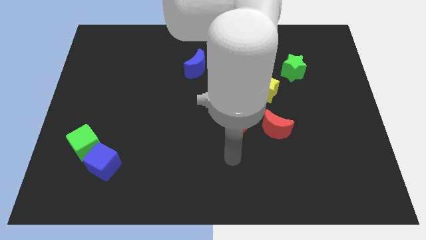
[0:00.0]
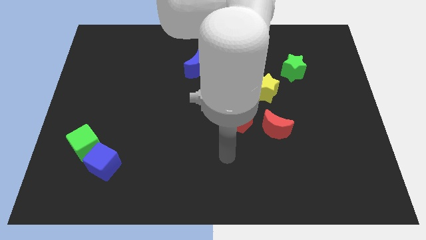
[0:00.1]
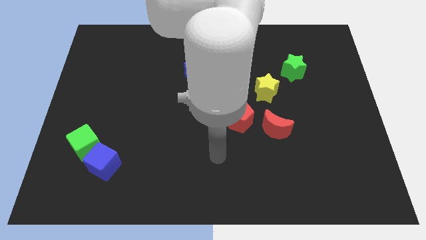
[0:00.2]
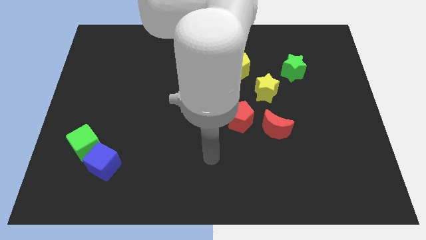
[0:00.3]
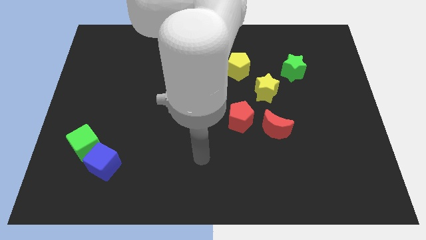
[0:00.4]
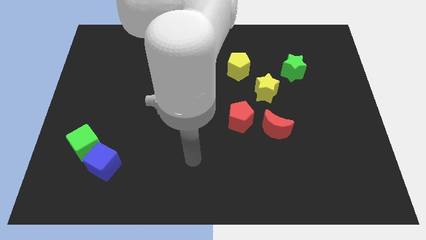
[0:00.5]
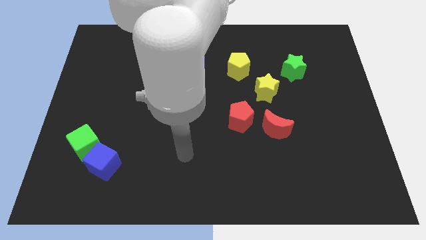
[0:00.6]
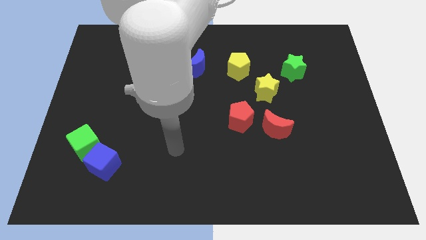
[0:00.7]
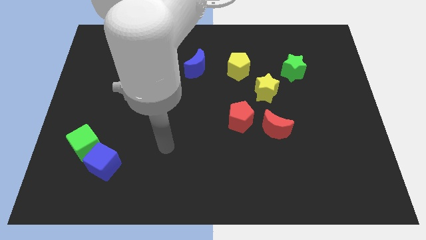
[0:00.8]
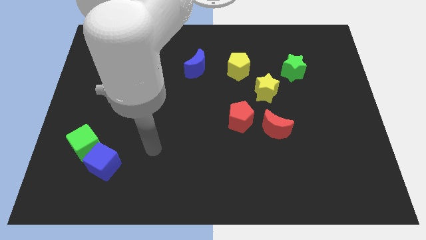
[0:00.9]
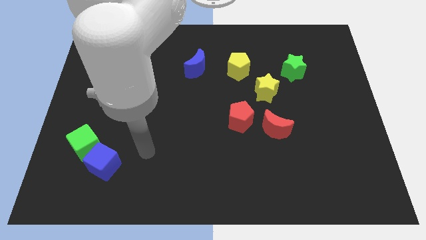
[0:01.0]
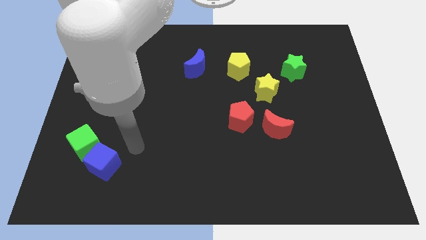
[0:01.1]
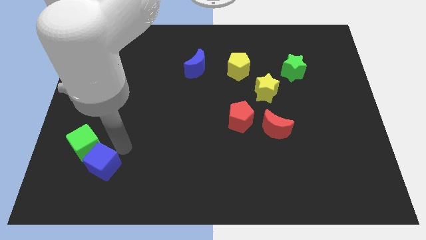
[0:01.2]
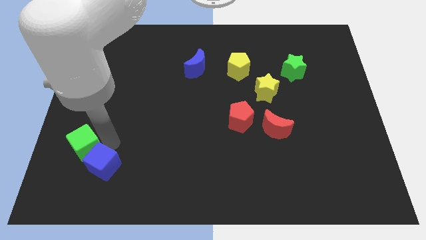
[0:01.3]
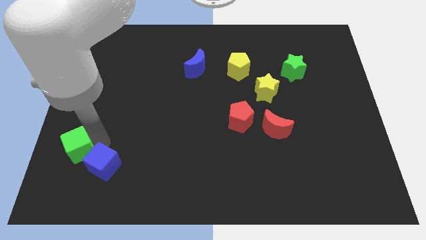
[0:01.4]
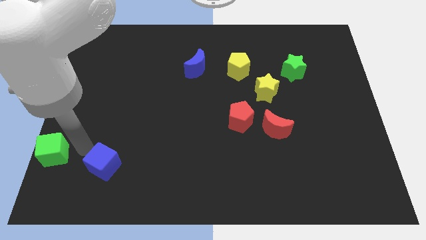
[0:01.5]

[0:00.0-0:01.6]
pull the blue cube apart from the green cube

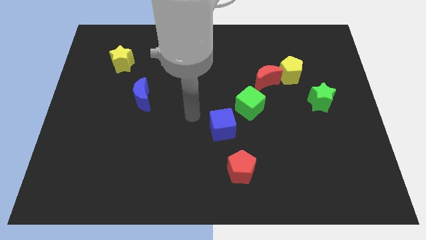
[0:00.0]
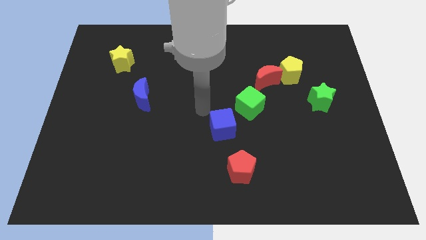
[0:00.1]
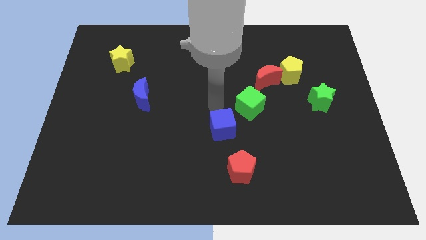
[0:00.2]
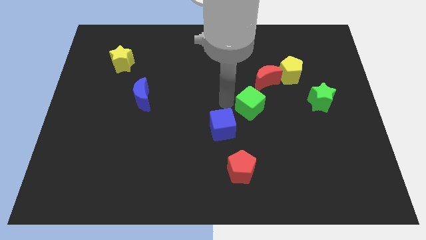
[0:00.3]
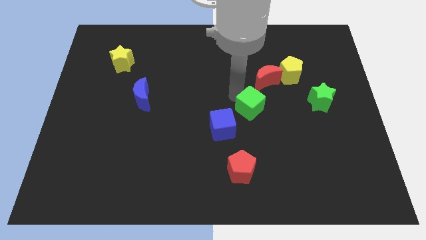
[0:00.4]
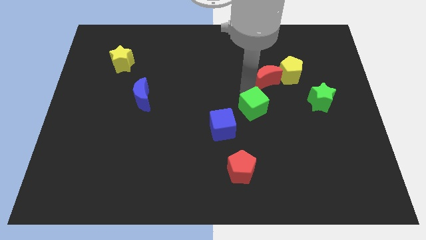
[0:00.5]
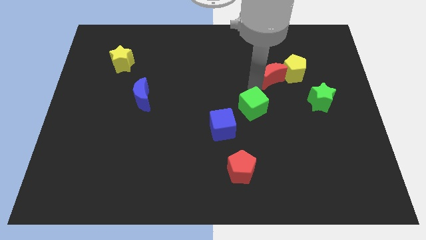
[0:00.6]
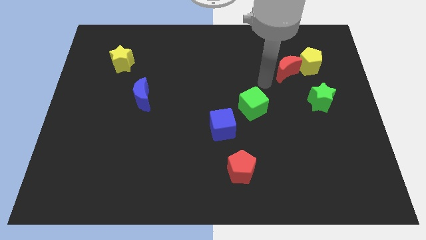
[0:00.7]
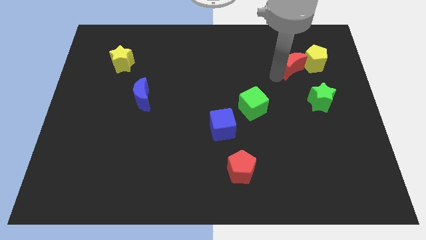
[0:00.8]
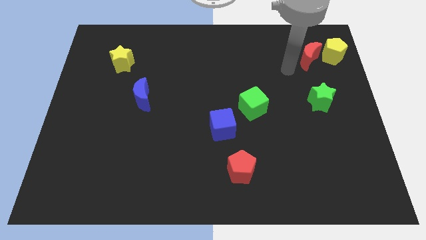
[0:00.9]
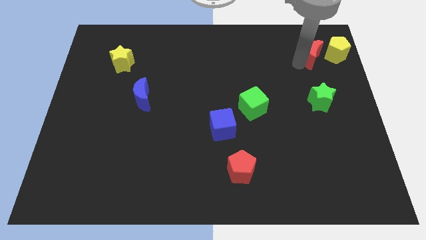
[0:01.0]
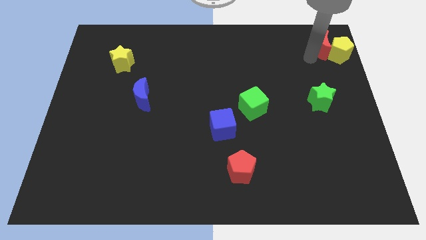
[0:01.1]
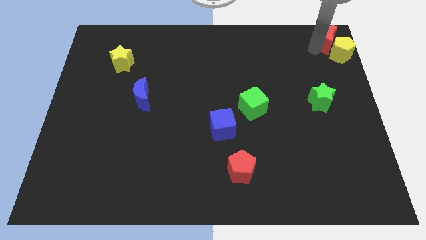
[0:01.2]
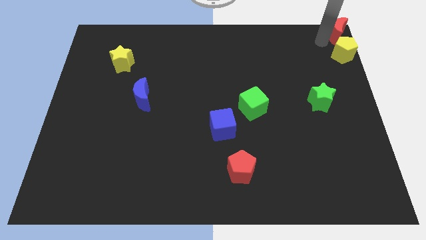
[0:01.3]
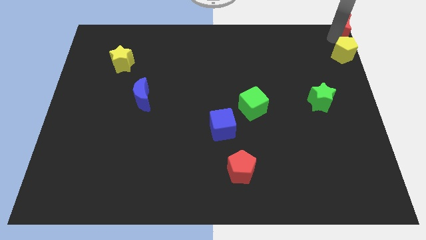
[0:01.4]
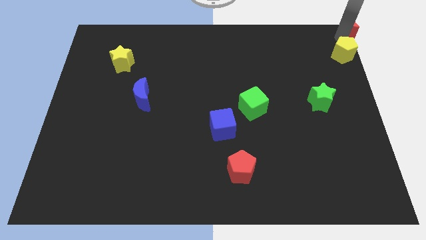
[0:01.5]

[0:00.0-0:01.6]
separate the yellow pentagon from the red moon

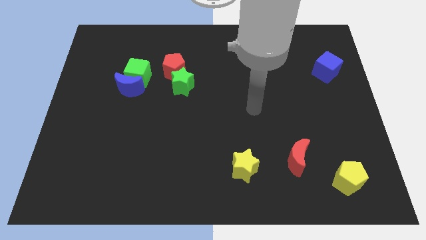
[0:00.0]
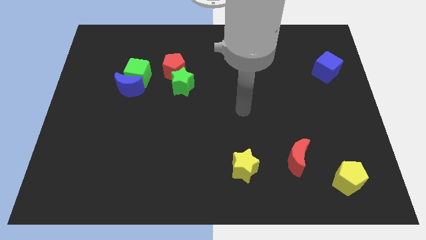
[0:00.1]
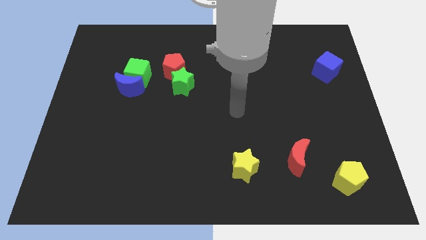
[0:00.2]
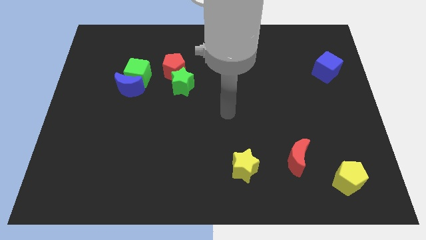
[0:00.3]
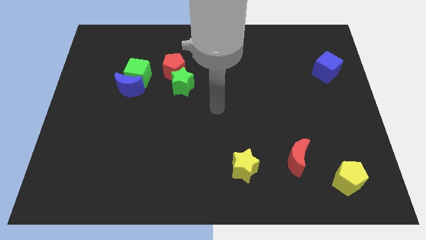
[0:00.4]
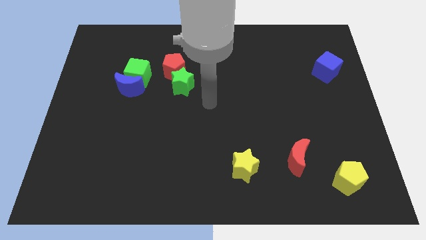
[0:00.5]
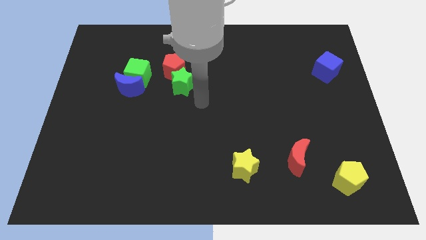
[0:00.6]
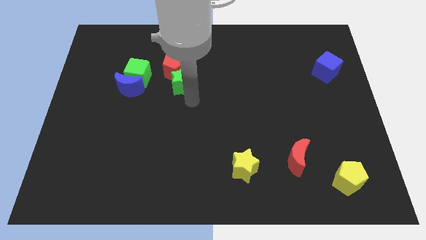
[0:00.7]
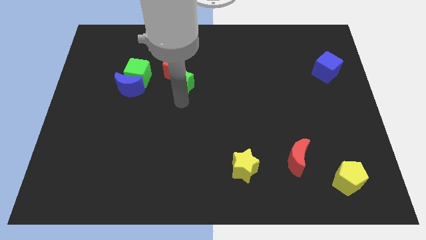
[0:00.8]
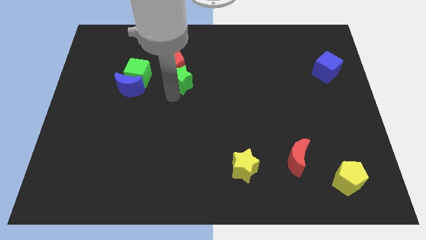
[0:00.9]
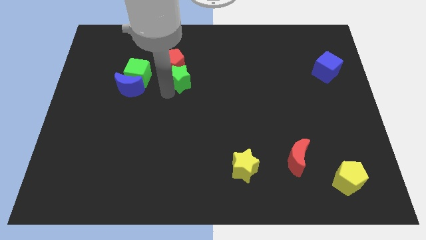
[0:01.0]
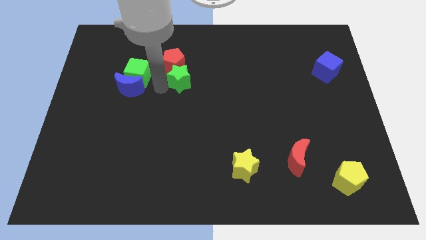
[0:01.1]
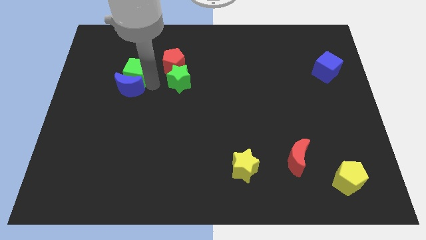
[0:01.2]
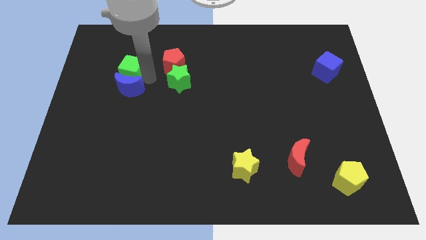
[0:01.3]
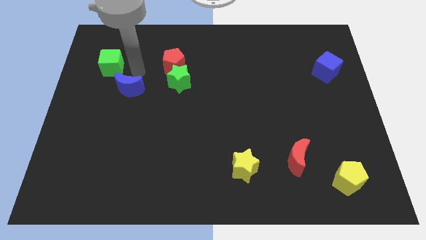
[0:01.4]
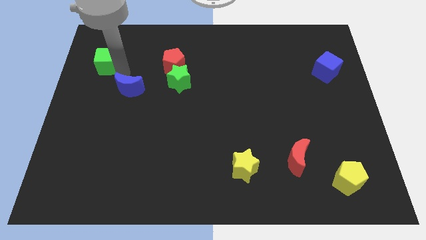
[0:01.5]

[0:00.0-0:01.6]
move the blue moon away from the green cube

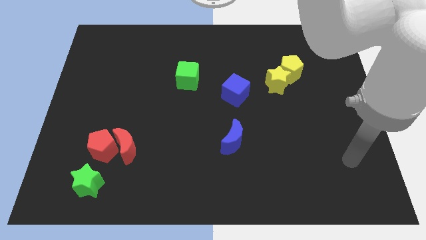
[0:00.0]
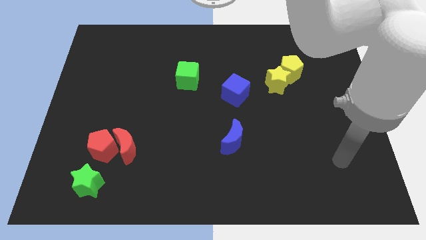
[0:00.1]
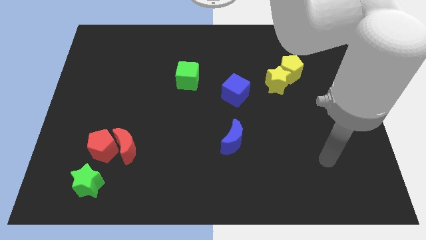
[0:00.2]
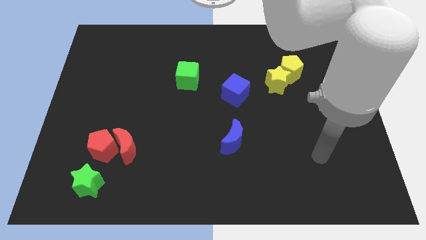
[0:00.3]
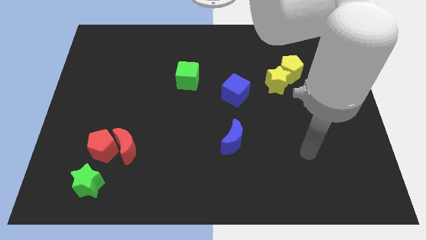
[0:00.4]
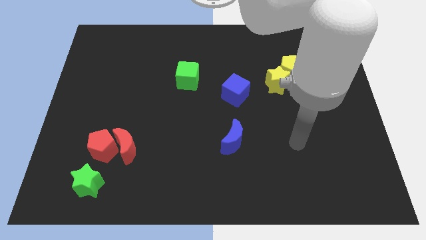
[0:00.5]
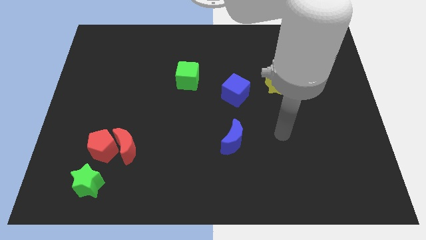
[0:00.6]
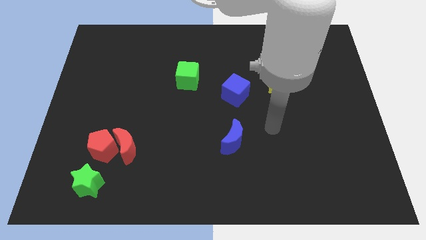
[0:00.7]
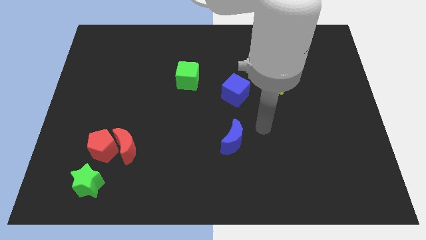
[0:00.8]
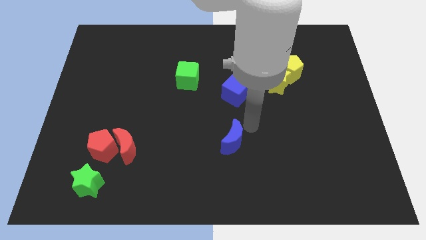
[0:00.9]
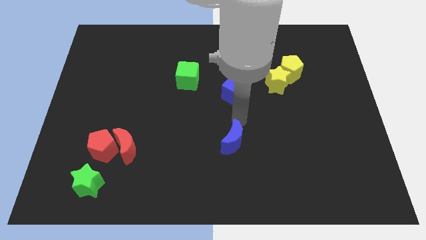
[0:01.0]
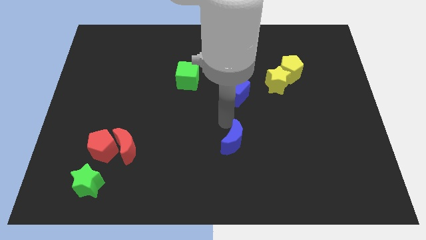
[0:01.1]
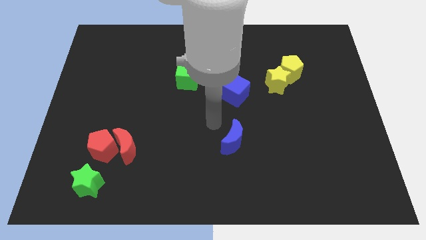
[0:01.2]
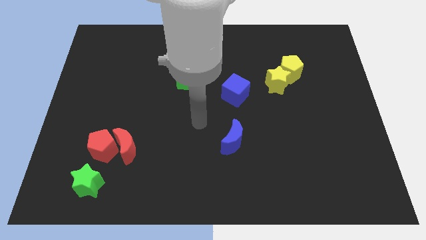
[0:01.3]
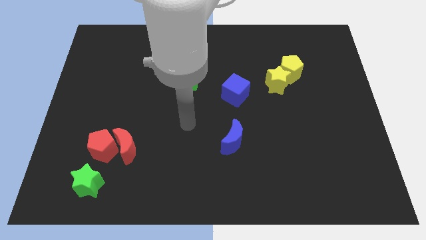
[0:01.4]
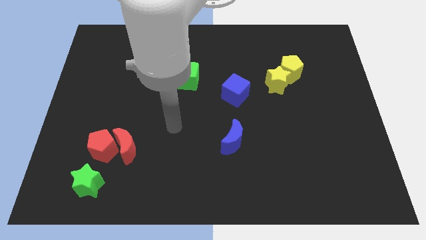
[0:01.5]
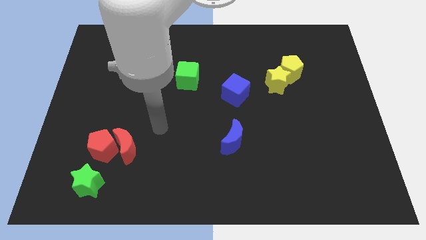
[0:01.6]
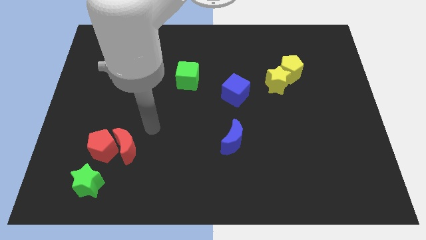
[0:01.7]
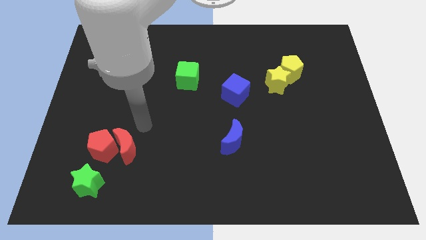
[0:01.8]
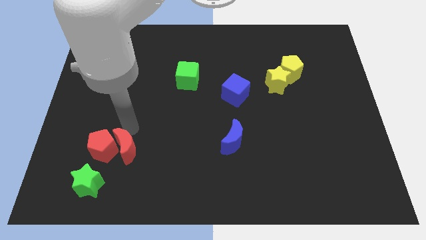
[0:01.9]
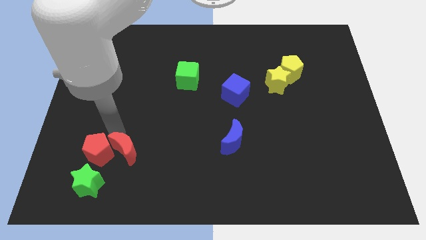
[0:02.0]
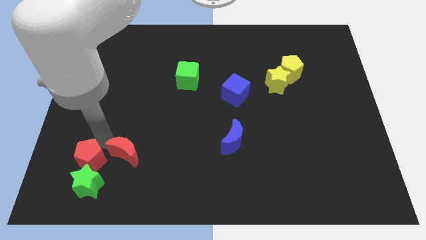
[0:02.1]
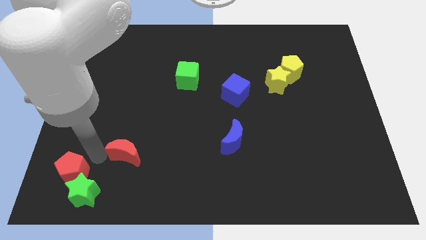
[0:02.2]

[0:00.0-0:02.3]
move the red moon away from the red pentagon

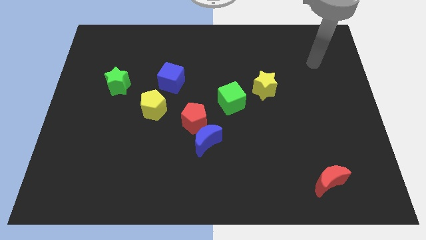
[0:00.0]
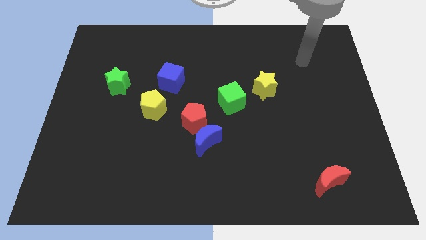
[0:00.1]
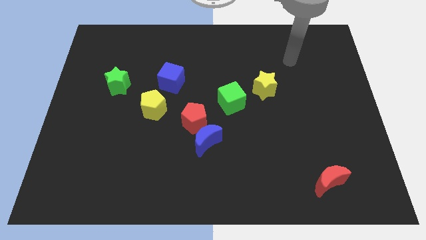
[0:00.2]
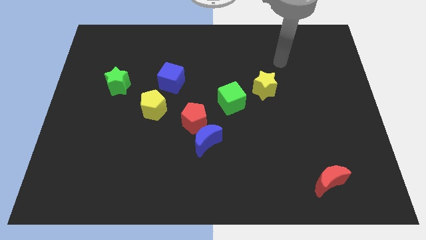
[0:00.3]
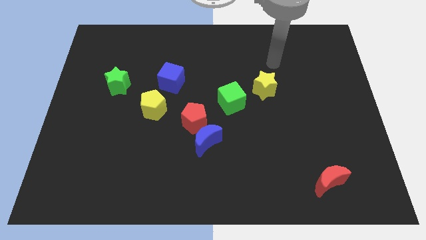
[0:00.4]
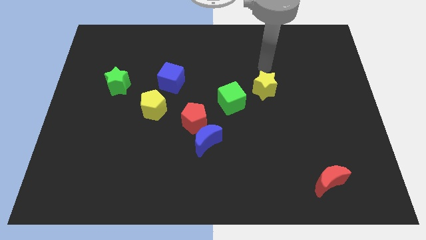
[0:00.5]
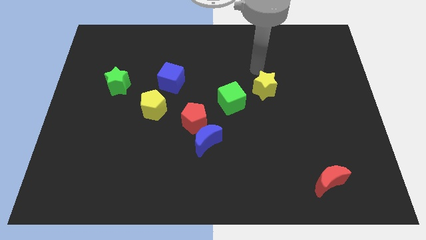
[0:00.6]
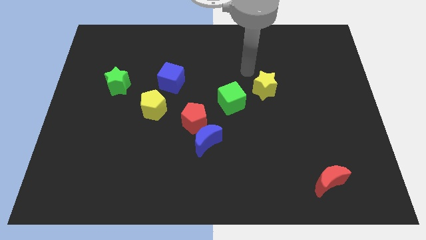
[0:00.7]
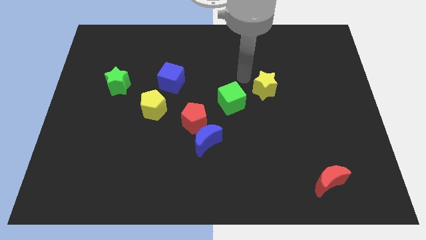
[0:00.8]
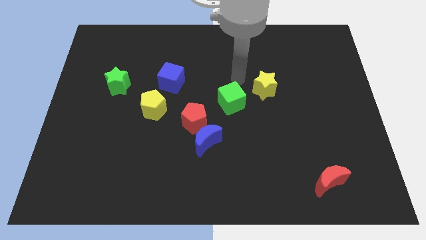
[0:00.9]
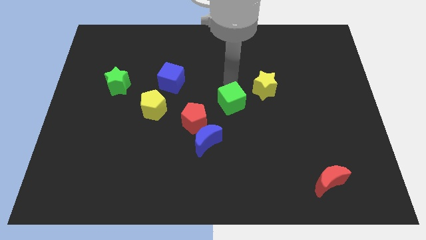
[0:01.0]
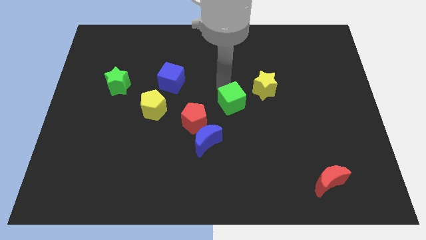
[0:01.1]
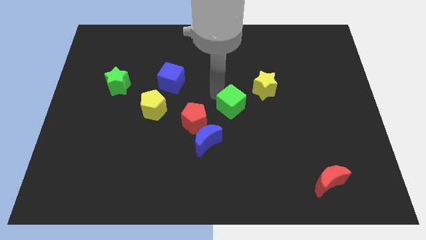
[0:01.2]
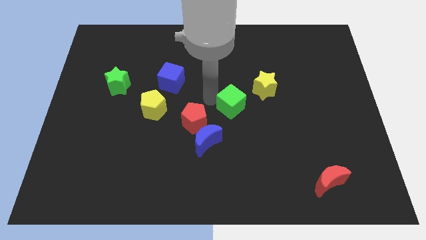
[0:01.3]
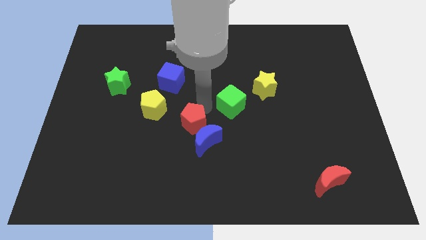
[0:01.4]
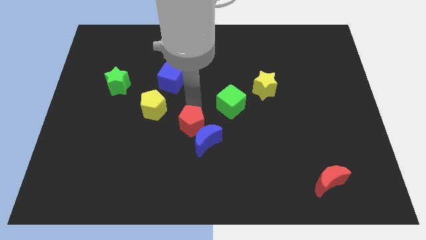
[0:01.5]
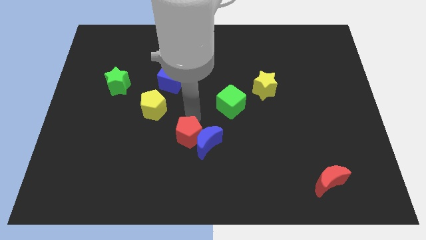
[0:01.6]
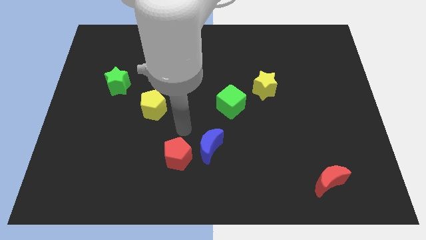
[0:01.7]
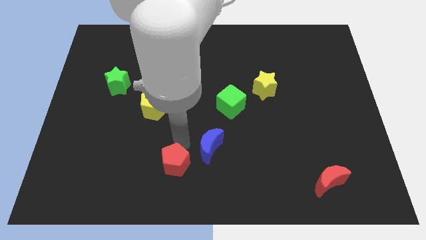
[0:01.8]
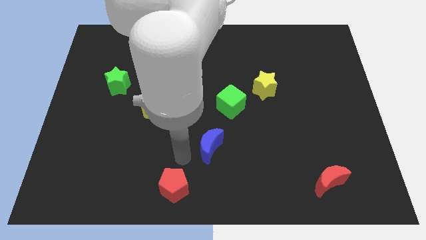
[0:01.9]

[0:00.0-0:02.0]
separate the blue moon from the red pentagon

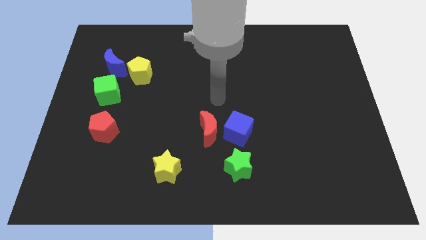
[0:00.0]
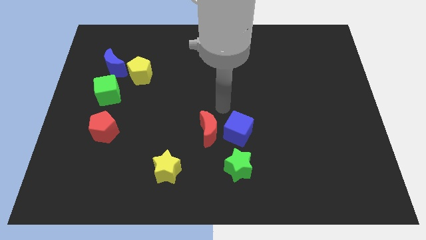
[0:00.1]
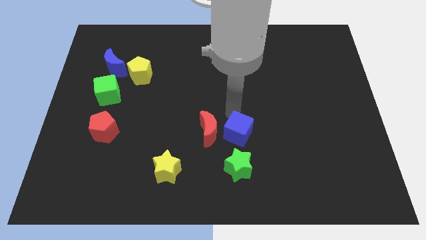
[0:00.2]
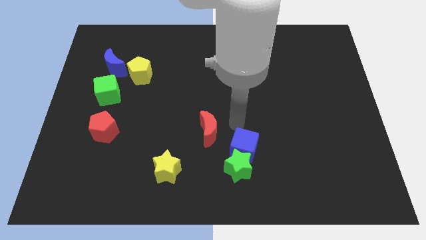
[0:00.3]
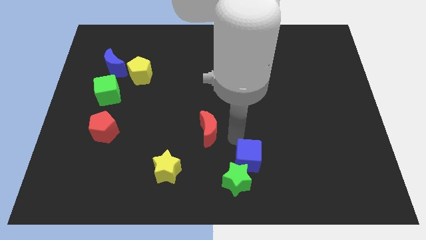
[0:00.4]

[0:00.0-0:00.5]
pull the red moon apart from the blue cube
